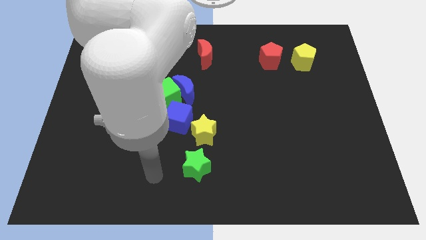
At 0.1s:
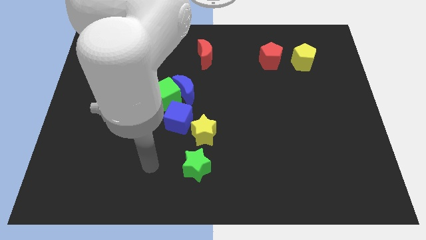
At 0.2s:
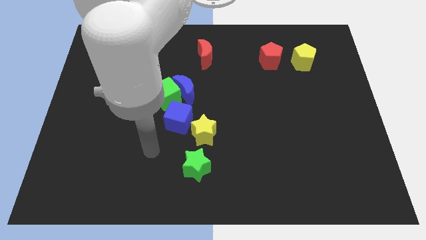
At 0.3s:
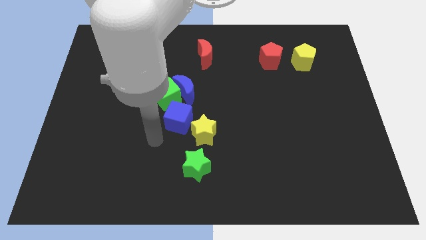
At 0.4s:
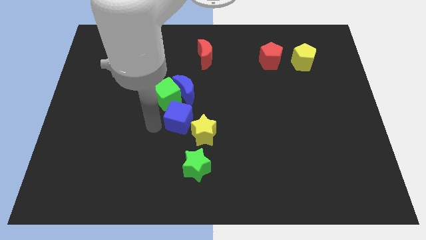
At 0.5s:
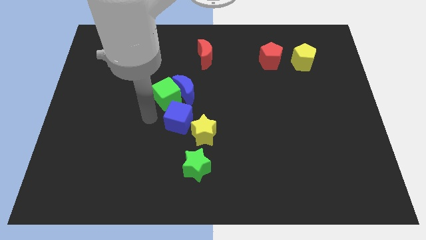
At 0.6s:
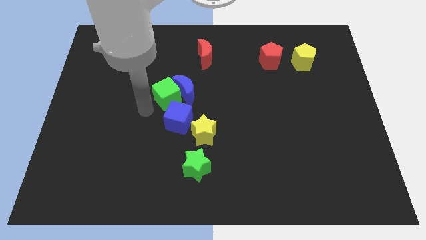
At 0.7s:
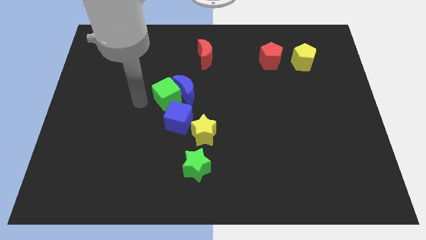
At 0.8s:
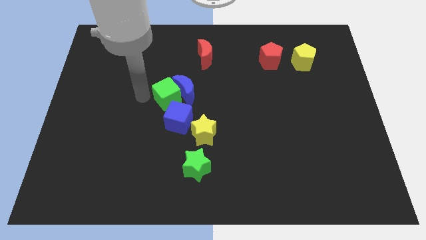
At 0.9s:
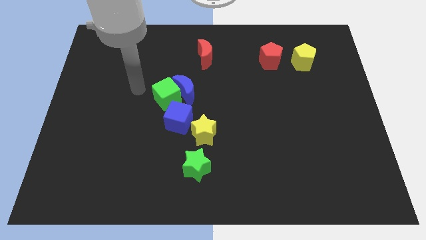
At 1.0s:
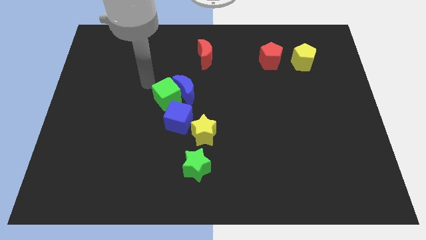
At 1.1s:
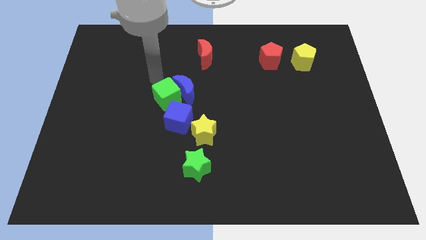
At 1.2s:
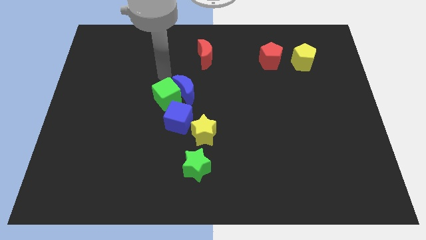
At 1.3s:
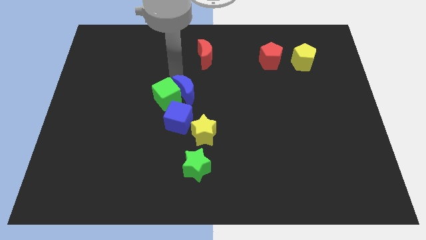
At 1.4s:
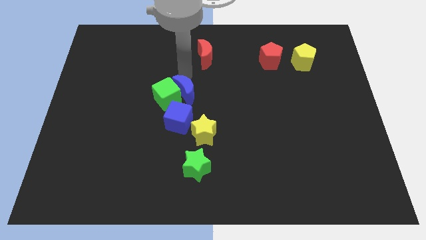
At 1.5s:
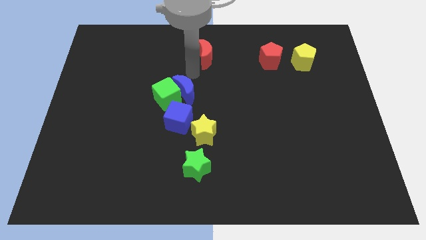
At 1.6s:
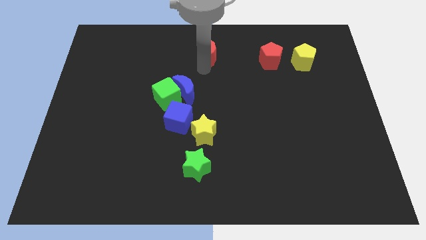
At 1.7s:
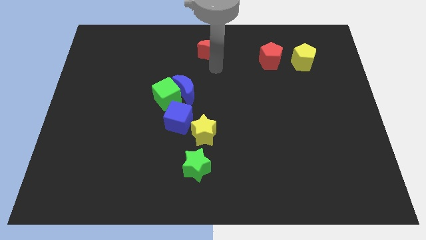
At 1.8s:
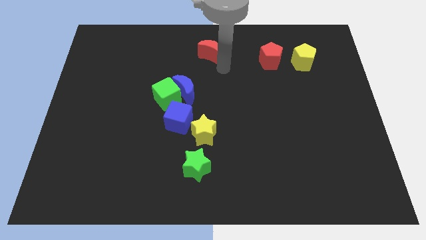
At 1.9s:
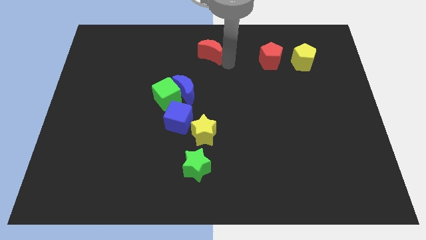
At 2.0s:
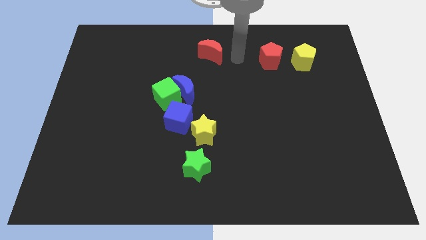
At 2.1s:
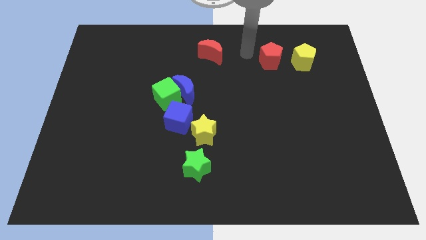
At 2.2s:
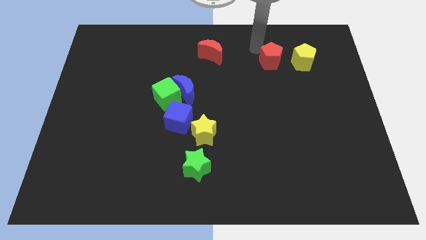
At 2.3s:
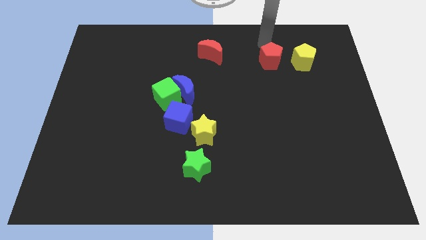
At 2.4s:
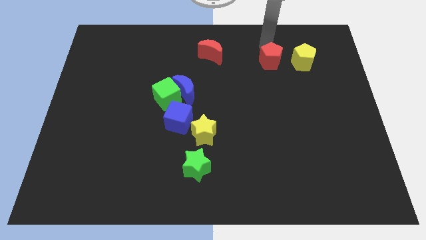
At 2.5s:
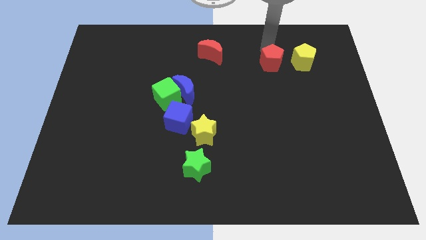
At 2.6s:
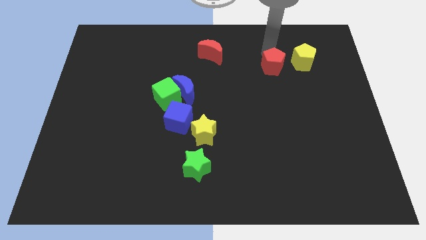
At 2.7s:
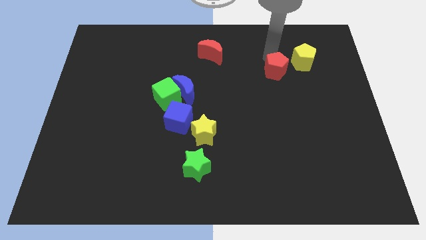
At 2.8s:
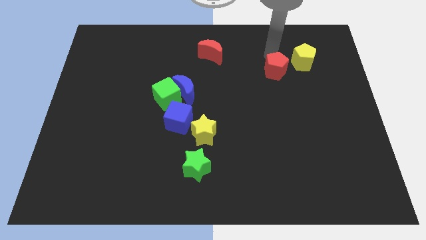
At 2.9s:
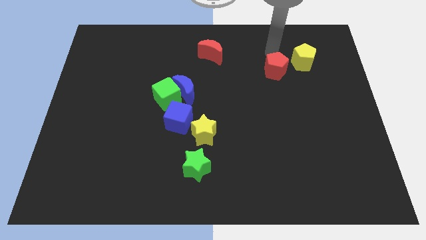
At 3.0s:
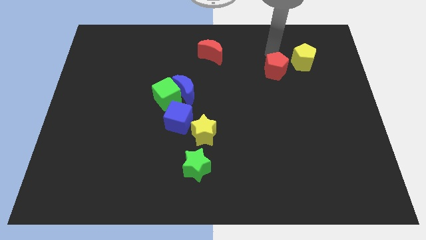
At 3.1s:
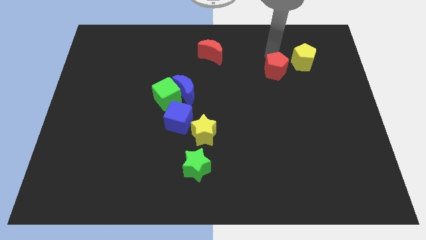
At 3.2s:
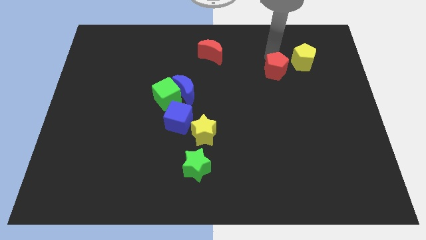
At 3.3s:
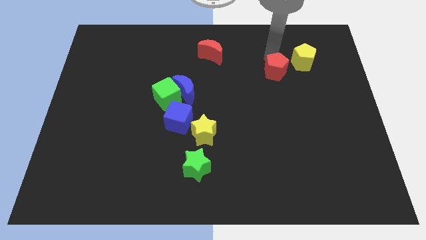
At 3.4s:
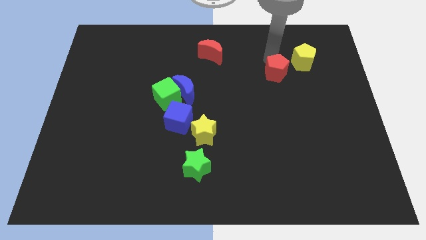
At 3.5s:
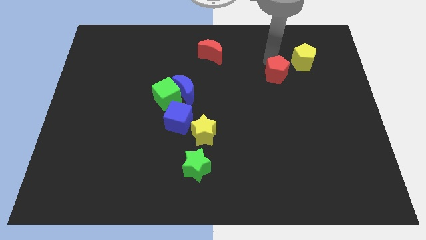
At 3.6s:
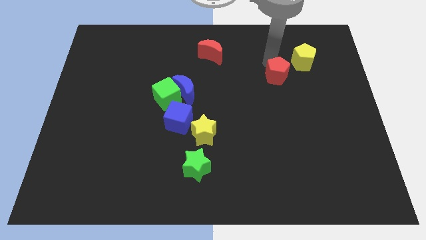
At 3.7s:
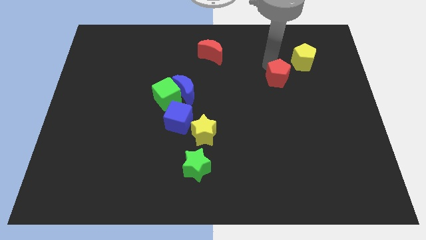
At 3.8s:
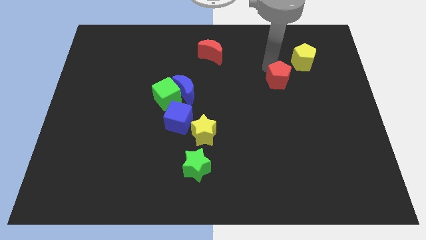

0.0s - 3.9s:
slightly push the red pentagon down

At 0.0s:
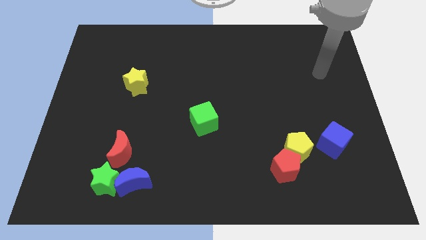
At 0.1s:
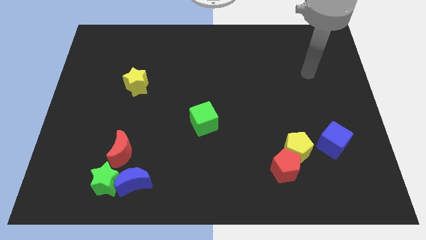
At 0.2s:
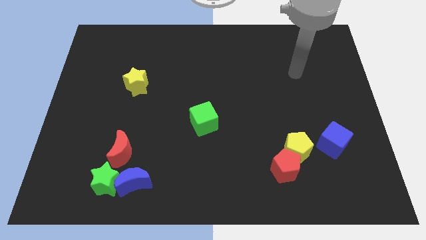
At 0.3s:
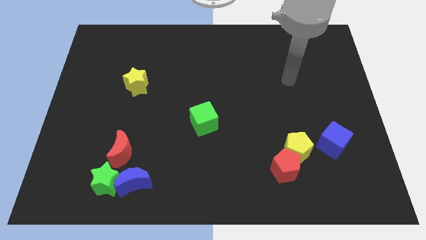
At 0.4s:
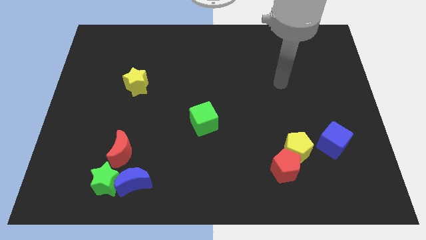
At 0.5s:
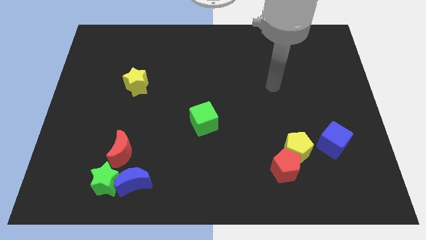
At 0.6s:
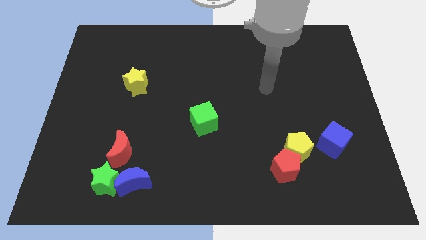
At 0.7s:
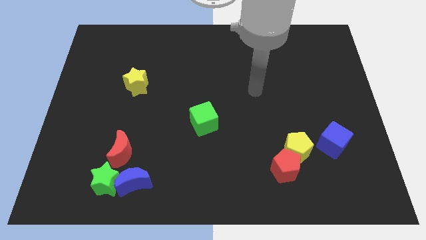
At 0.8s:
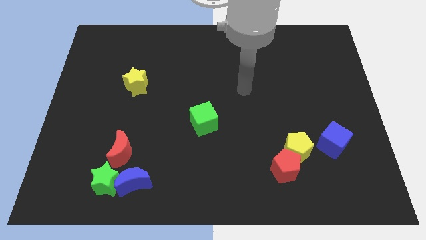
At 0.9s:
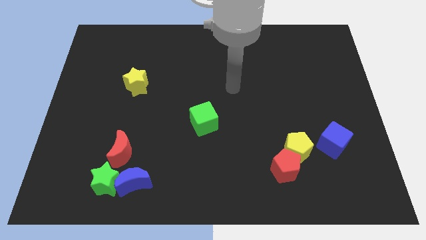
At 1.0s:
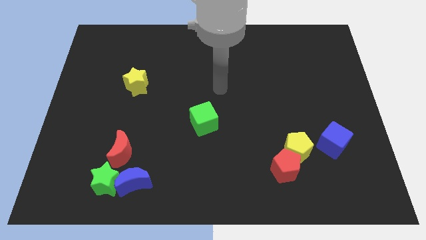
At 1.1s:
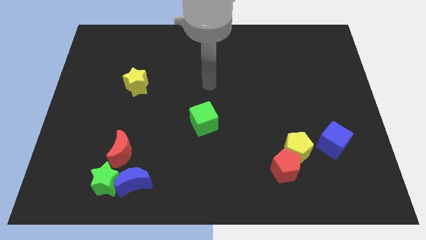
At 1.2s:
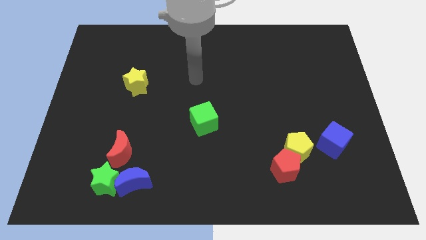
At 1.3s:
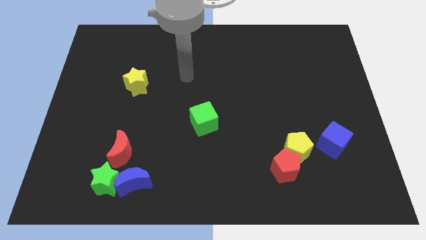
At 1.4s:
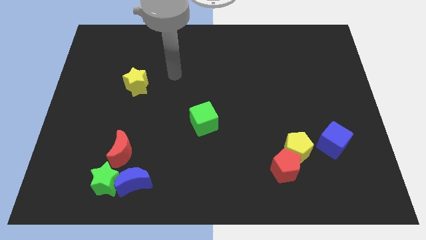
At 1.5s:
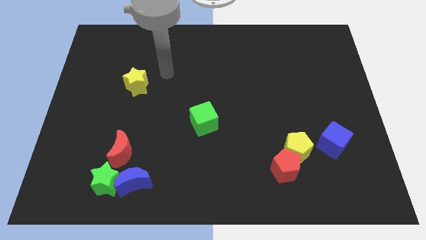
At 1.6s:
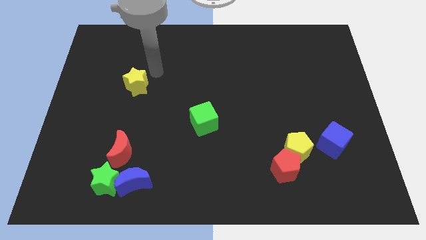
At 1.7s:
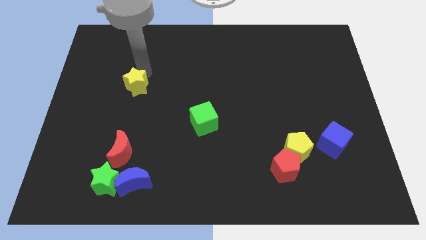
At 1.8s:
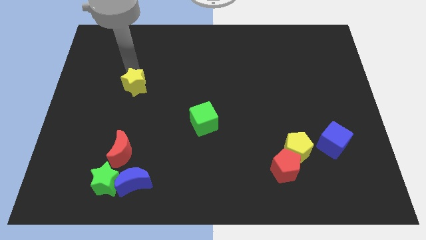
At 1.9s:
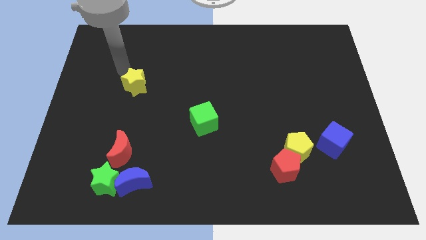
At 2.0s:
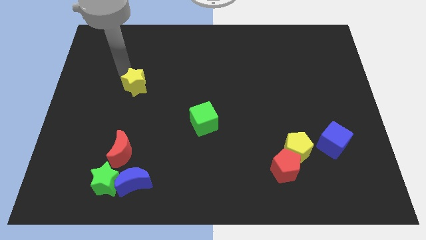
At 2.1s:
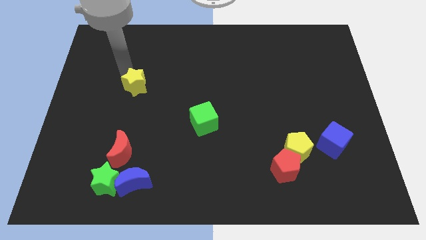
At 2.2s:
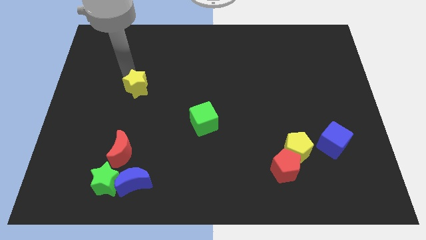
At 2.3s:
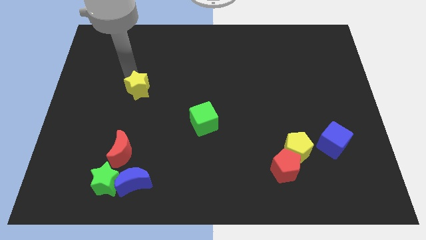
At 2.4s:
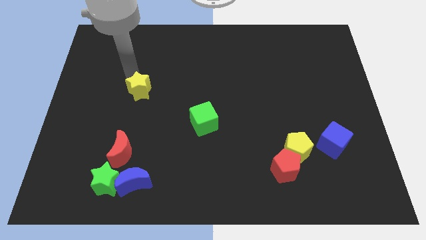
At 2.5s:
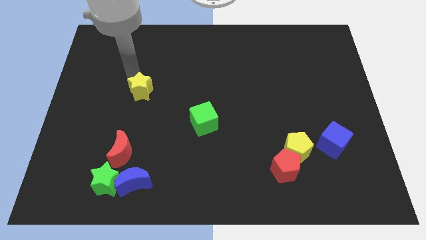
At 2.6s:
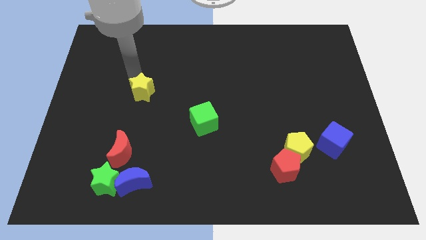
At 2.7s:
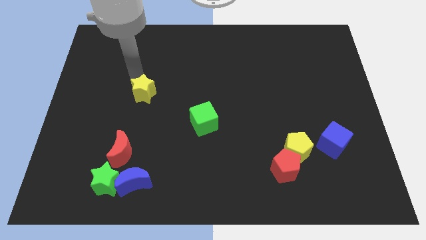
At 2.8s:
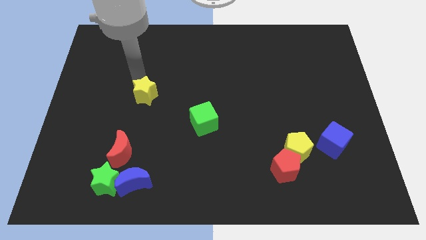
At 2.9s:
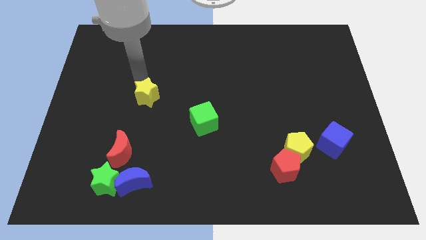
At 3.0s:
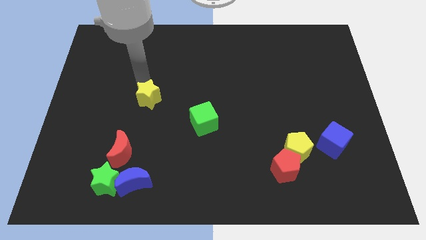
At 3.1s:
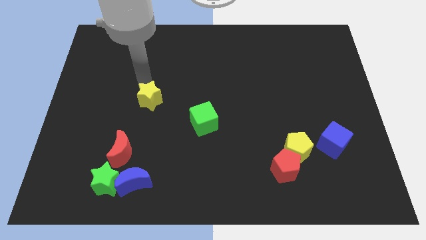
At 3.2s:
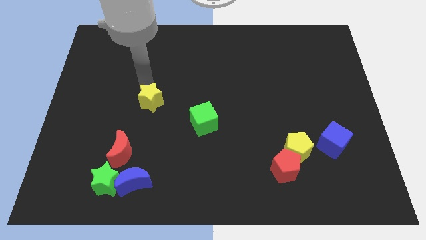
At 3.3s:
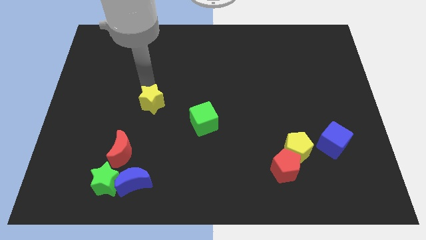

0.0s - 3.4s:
slightly move the yellow star downwards and then to the right

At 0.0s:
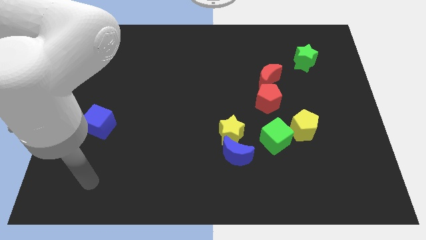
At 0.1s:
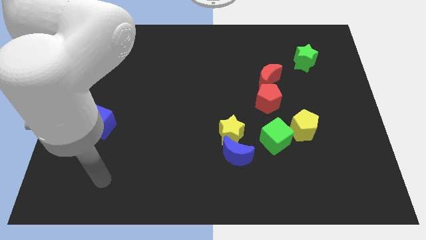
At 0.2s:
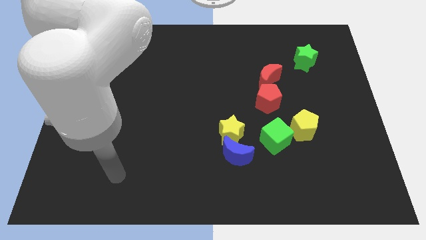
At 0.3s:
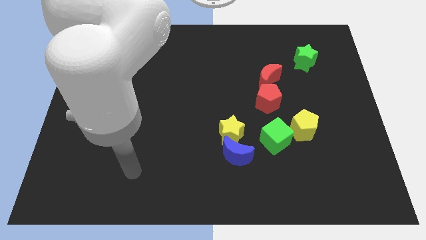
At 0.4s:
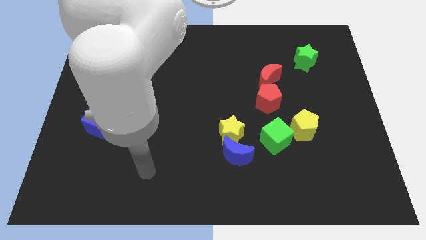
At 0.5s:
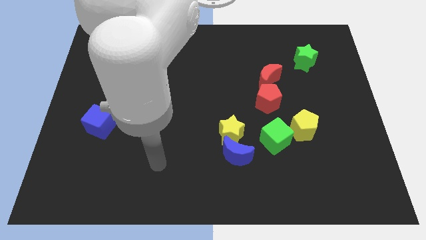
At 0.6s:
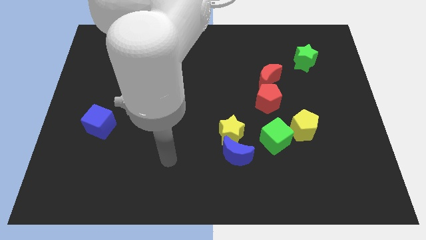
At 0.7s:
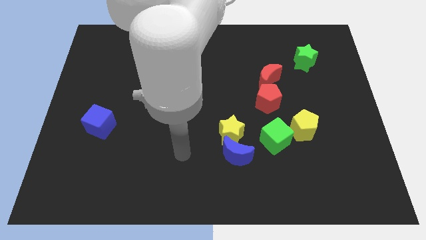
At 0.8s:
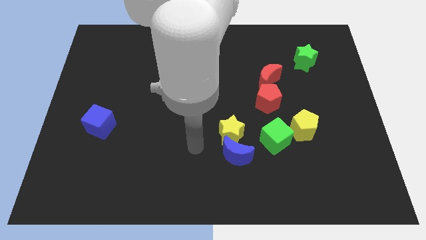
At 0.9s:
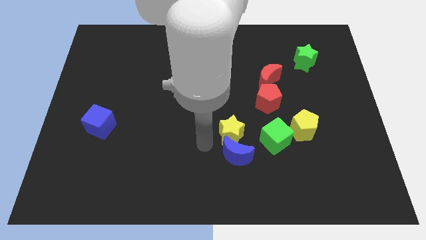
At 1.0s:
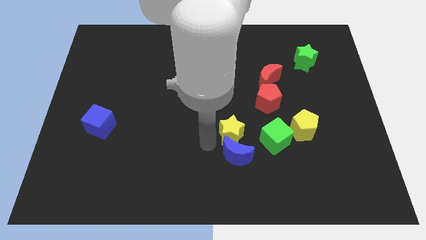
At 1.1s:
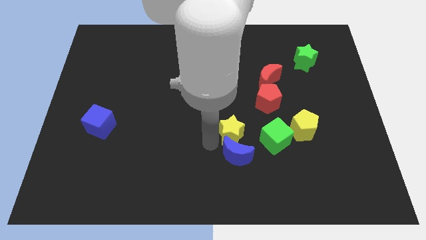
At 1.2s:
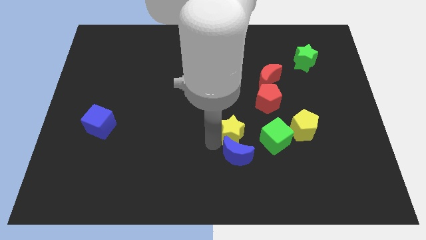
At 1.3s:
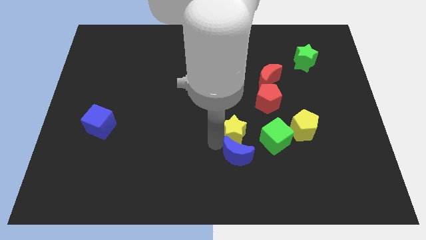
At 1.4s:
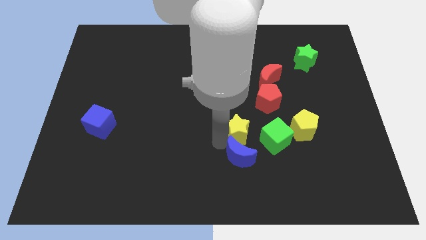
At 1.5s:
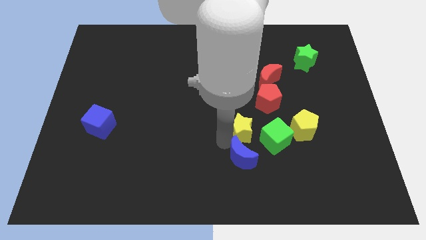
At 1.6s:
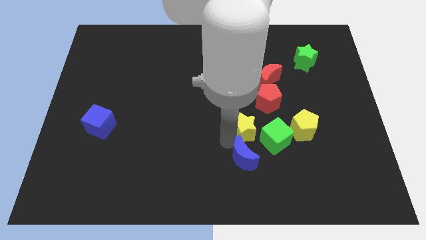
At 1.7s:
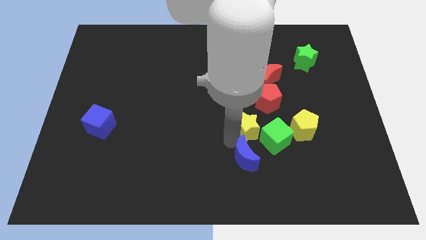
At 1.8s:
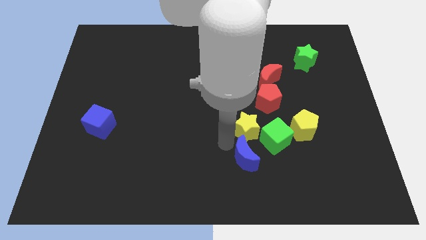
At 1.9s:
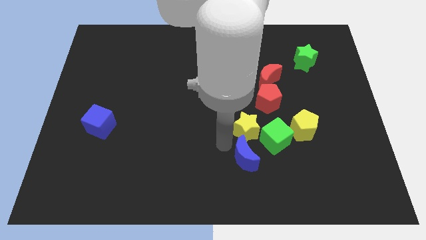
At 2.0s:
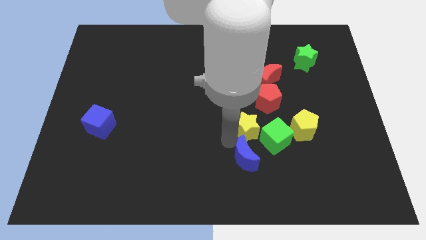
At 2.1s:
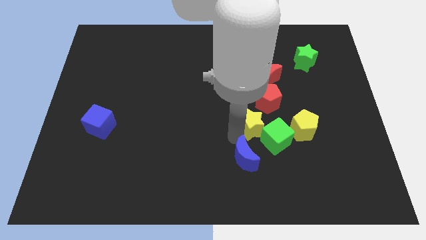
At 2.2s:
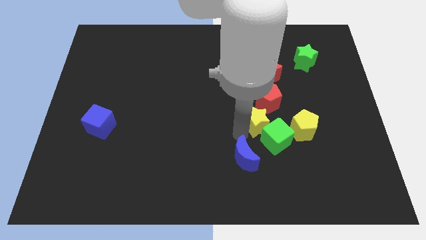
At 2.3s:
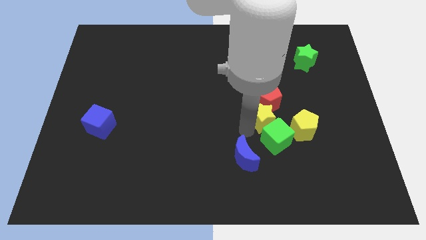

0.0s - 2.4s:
slightly push the yellow star upwards and right
